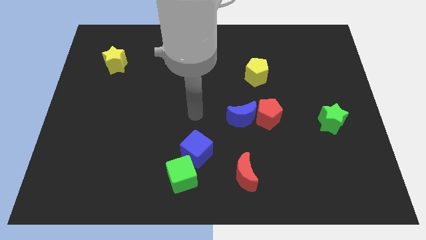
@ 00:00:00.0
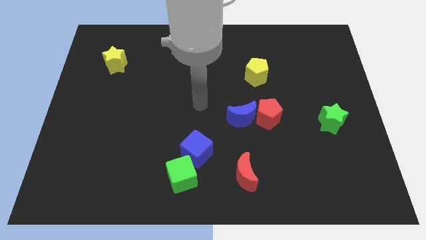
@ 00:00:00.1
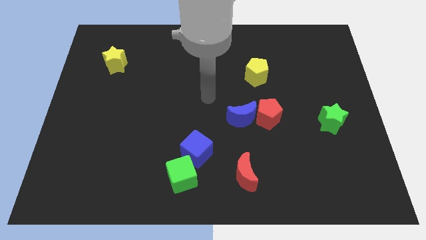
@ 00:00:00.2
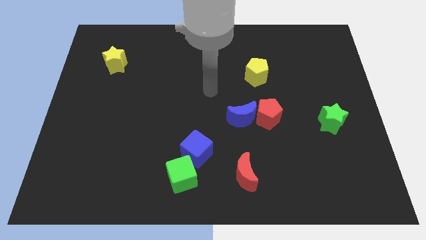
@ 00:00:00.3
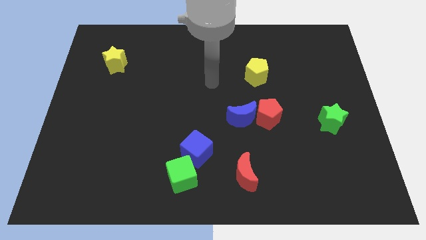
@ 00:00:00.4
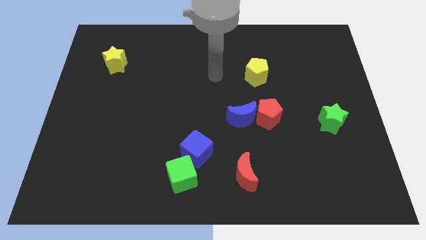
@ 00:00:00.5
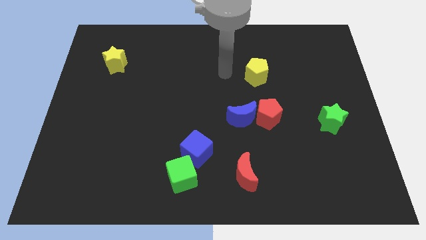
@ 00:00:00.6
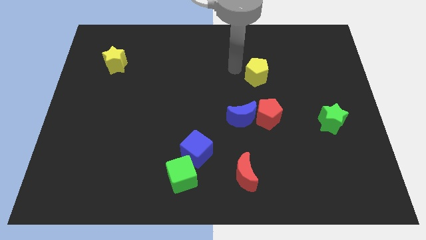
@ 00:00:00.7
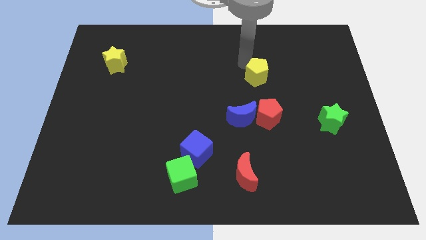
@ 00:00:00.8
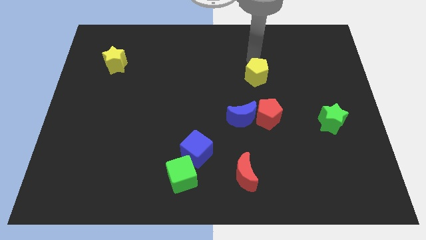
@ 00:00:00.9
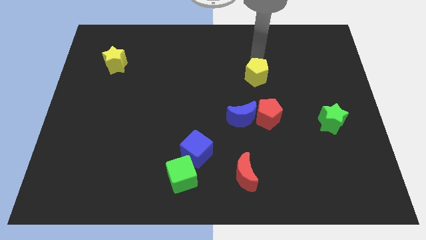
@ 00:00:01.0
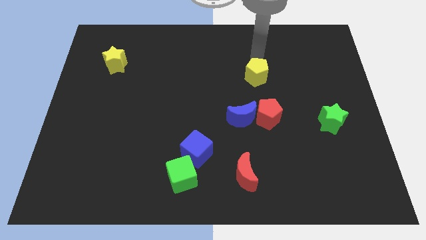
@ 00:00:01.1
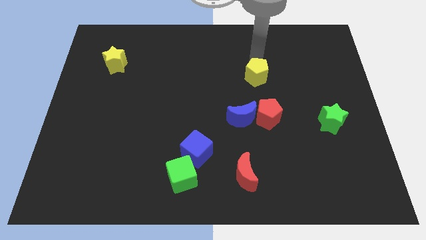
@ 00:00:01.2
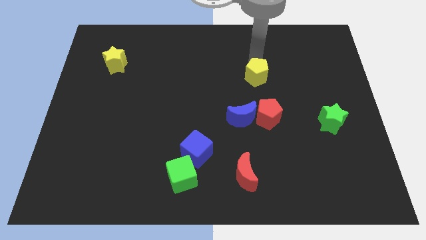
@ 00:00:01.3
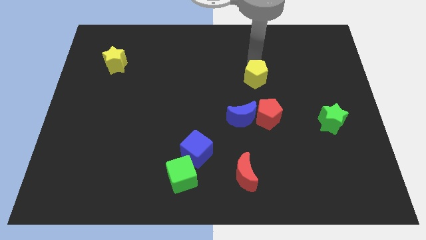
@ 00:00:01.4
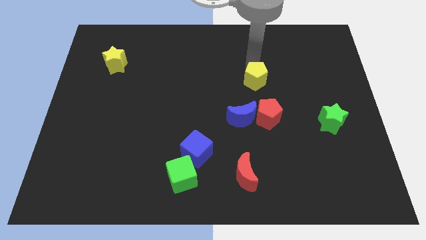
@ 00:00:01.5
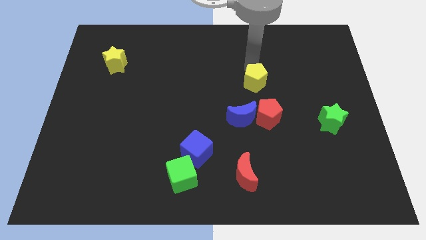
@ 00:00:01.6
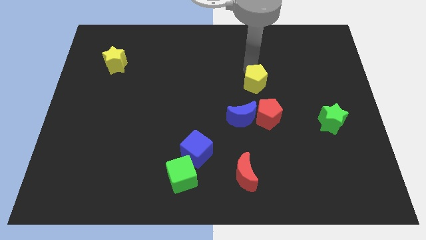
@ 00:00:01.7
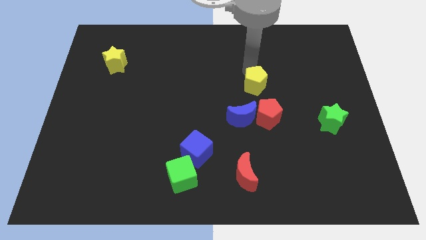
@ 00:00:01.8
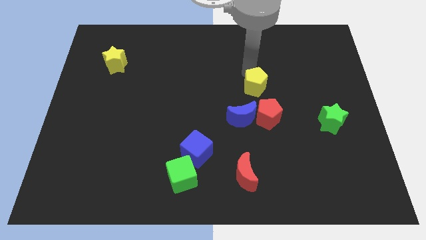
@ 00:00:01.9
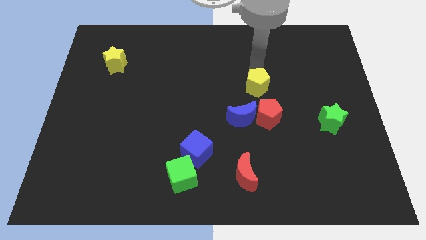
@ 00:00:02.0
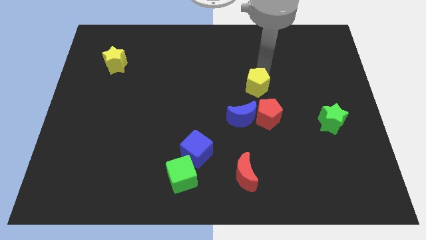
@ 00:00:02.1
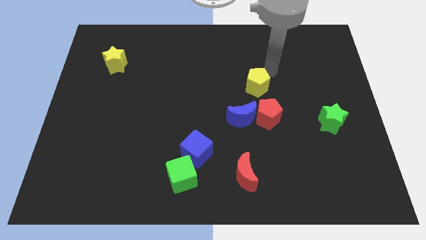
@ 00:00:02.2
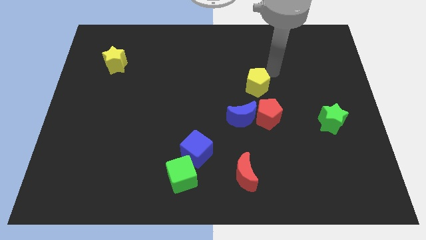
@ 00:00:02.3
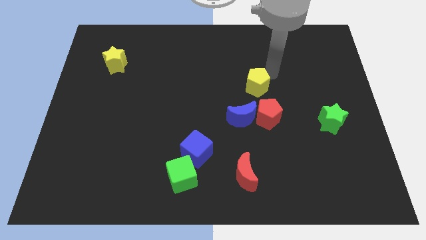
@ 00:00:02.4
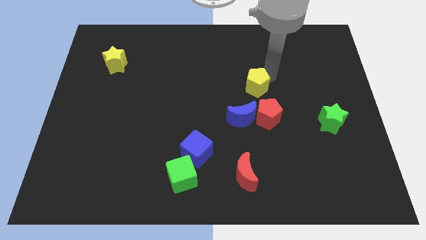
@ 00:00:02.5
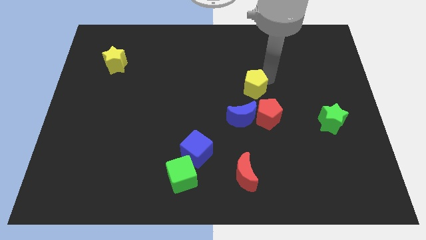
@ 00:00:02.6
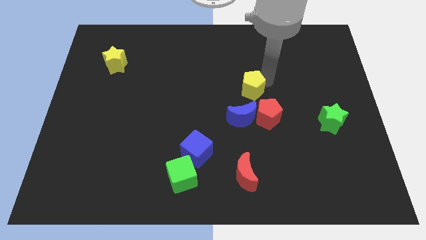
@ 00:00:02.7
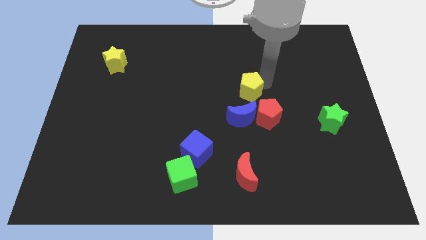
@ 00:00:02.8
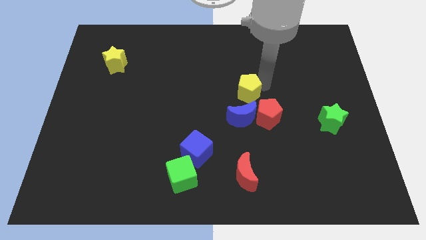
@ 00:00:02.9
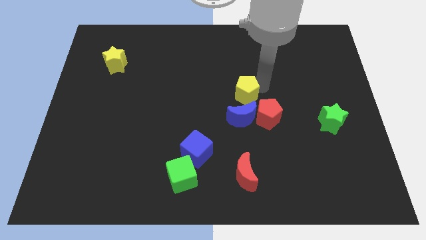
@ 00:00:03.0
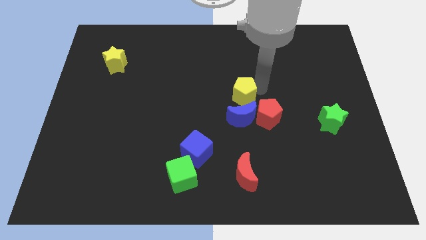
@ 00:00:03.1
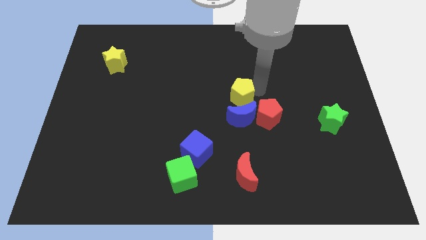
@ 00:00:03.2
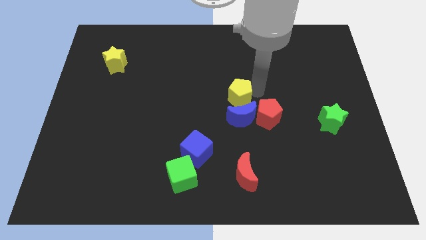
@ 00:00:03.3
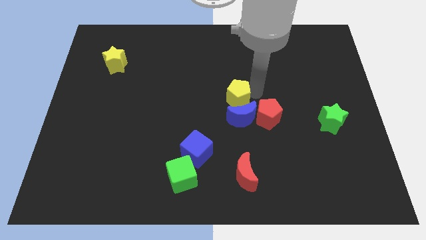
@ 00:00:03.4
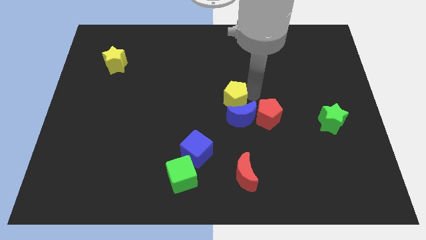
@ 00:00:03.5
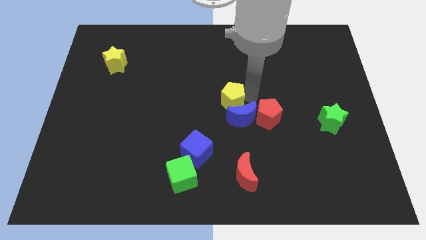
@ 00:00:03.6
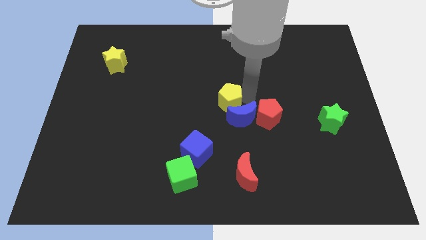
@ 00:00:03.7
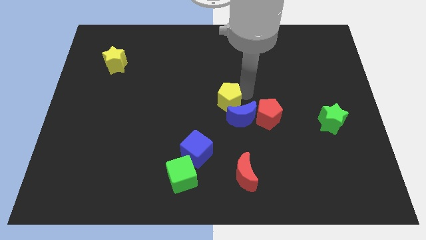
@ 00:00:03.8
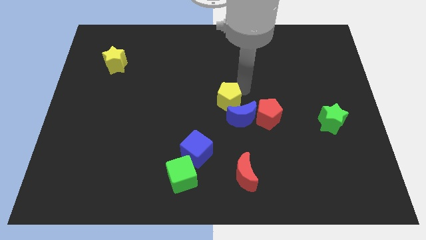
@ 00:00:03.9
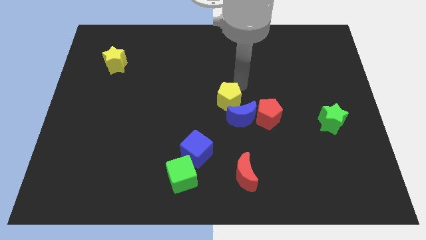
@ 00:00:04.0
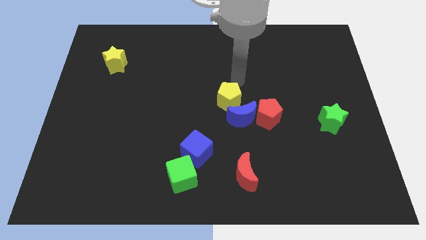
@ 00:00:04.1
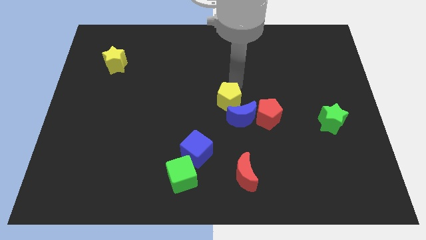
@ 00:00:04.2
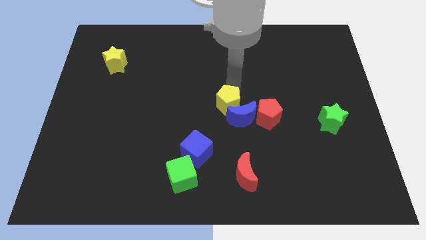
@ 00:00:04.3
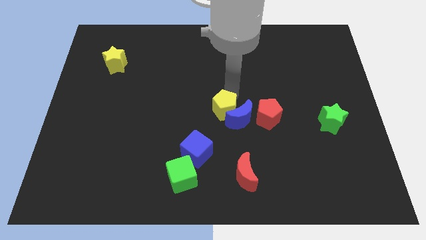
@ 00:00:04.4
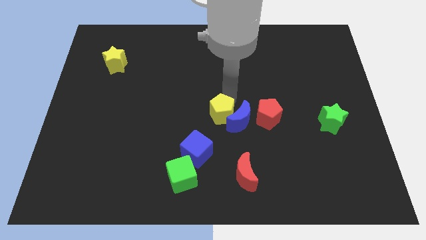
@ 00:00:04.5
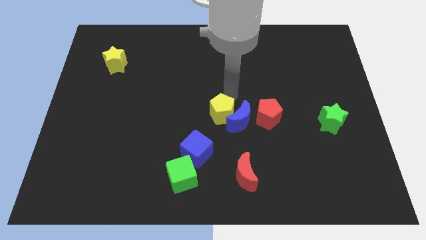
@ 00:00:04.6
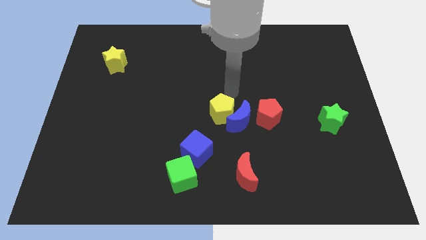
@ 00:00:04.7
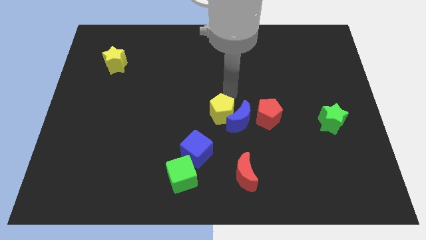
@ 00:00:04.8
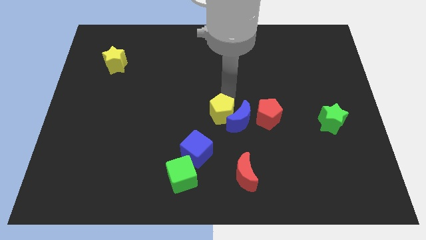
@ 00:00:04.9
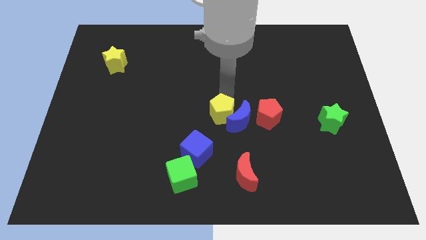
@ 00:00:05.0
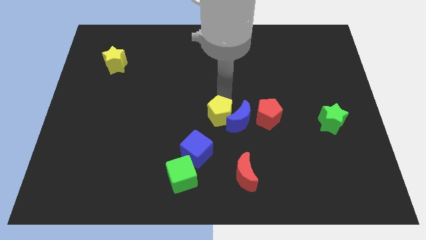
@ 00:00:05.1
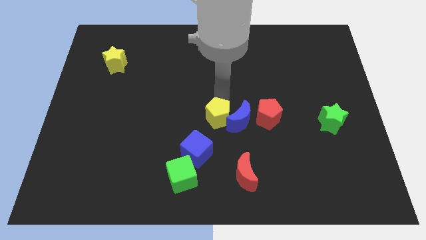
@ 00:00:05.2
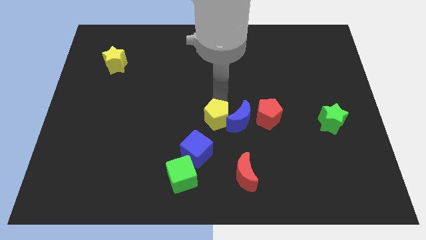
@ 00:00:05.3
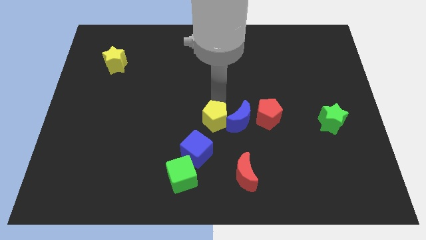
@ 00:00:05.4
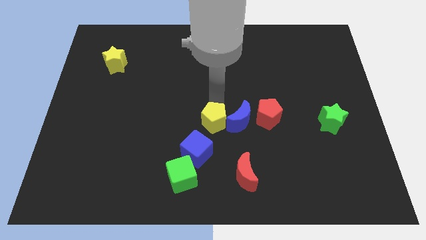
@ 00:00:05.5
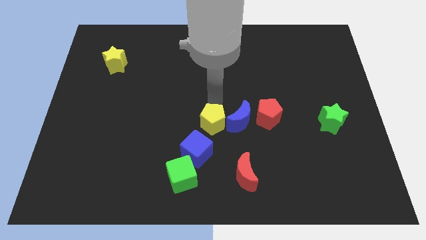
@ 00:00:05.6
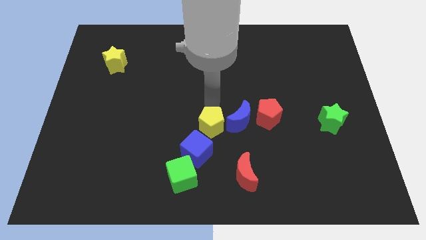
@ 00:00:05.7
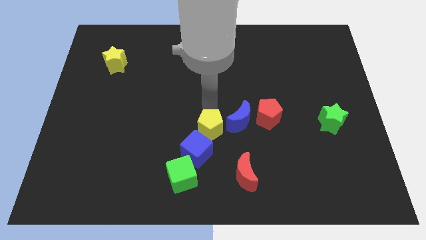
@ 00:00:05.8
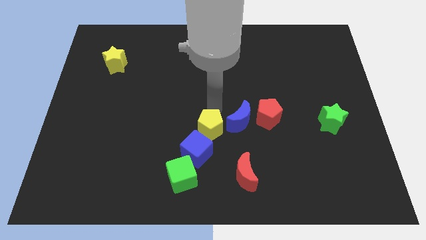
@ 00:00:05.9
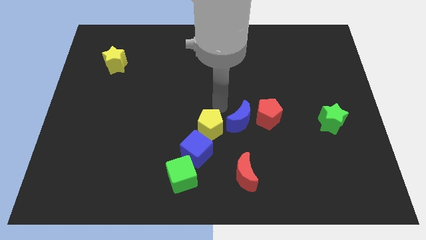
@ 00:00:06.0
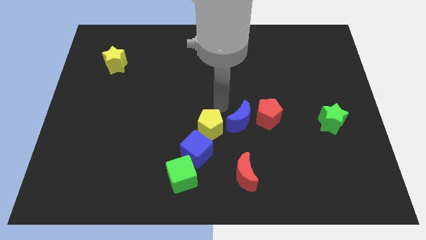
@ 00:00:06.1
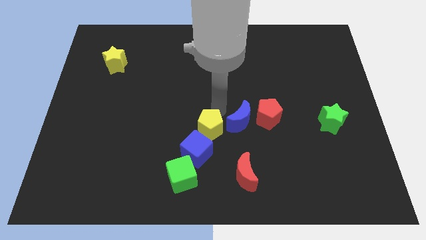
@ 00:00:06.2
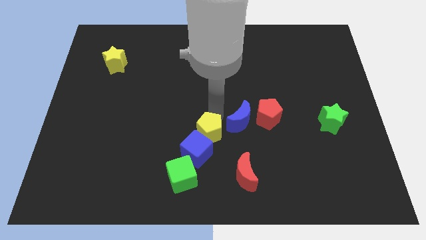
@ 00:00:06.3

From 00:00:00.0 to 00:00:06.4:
slide the yellow pentagon towards the blue cube

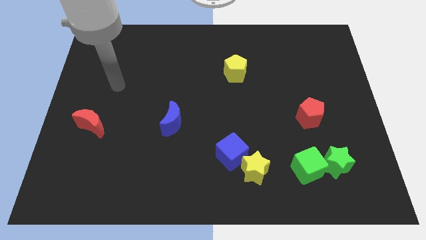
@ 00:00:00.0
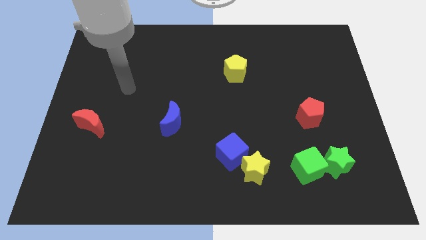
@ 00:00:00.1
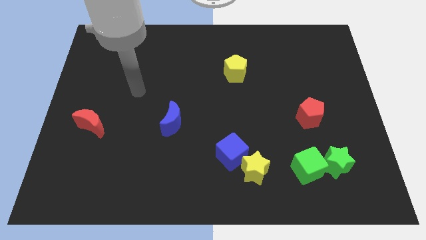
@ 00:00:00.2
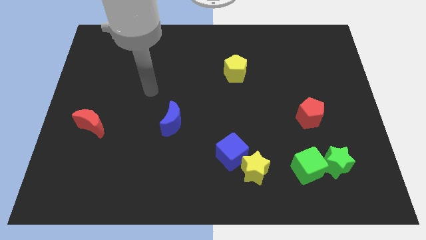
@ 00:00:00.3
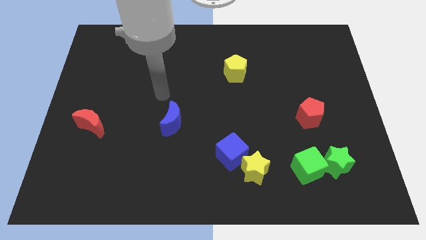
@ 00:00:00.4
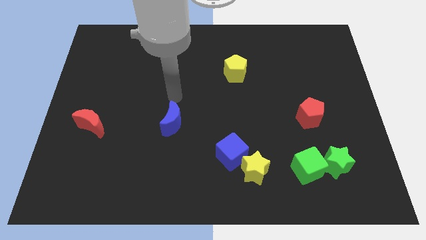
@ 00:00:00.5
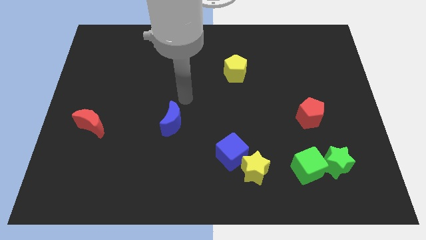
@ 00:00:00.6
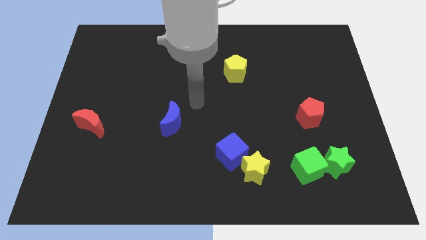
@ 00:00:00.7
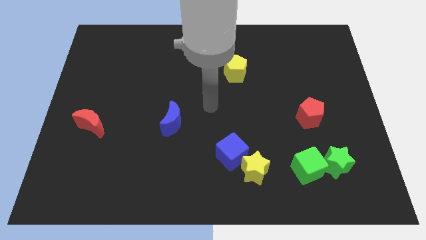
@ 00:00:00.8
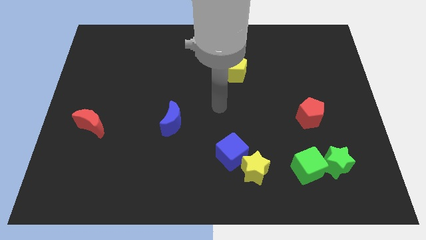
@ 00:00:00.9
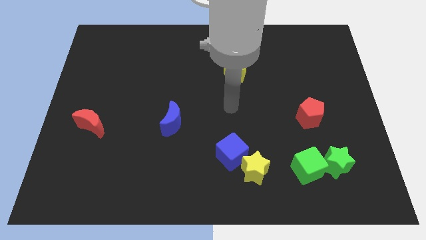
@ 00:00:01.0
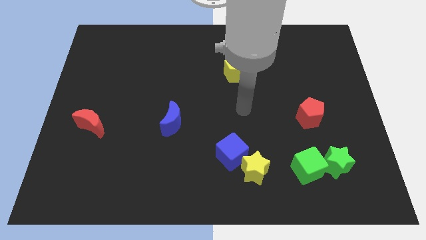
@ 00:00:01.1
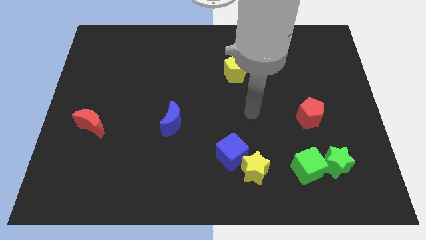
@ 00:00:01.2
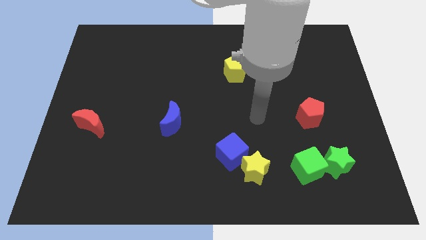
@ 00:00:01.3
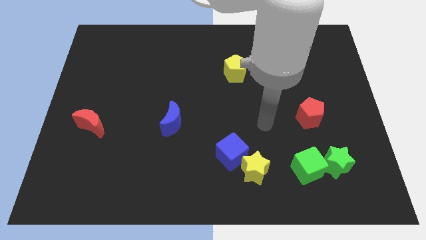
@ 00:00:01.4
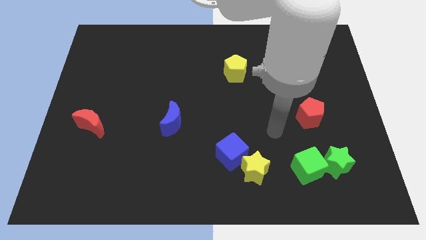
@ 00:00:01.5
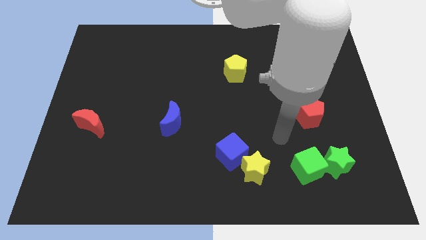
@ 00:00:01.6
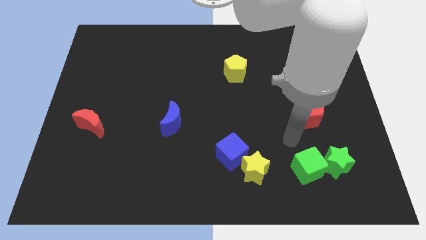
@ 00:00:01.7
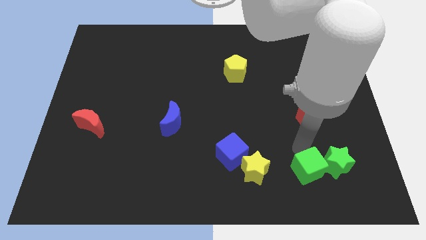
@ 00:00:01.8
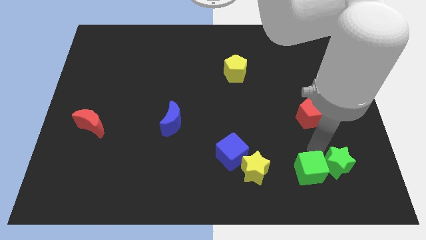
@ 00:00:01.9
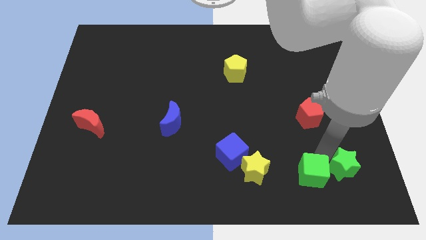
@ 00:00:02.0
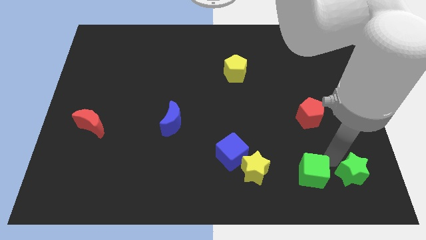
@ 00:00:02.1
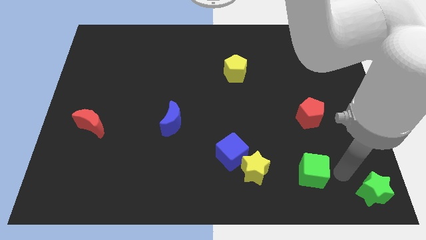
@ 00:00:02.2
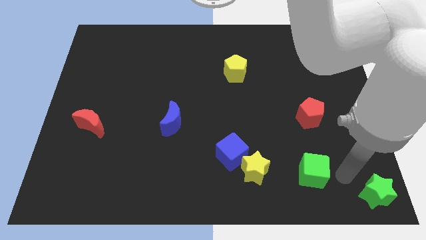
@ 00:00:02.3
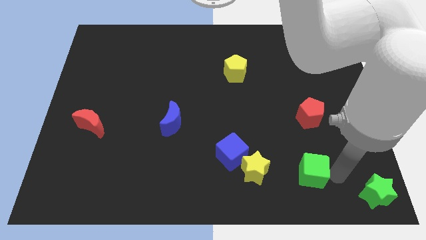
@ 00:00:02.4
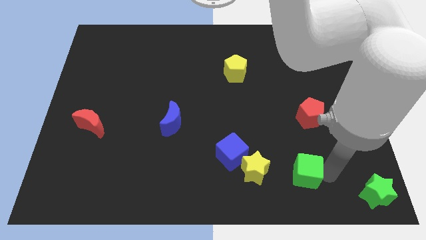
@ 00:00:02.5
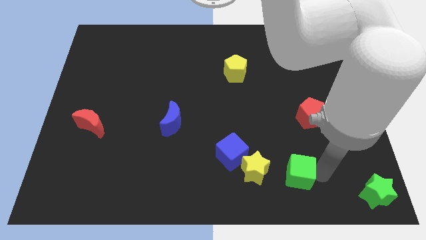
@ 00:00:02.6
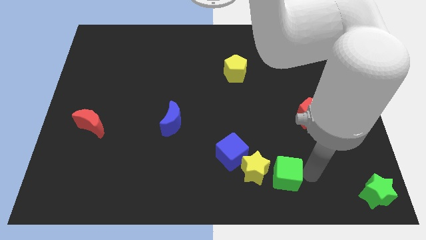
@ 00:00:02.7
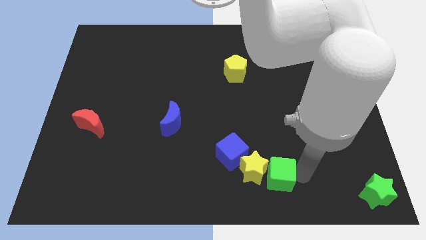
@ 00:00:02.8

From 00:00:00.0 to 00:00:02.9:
move the green cube close to the yellow star
